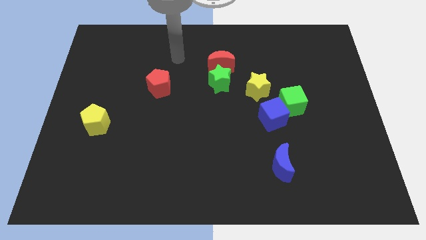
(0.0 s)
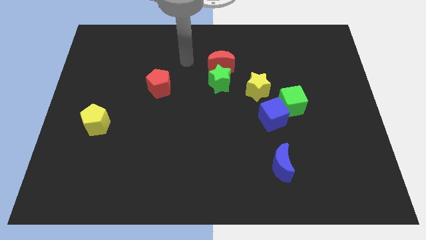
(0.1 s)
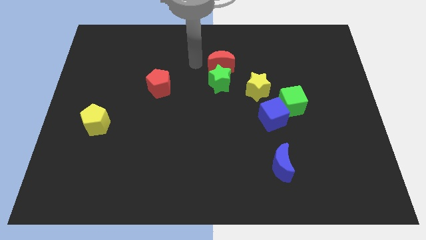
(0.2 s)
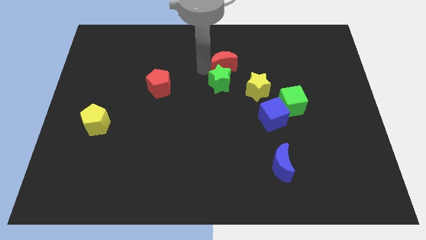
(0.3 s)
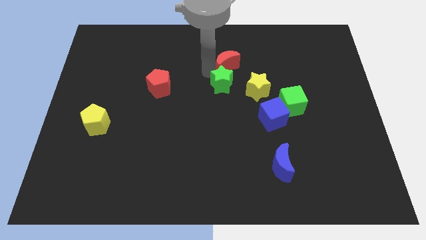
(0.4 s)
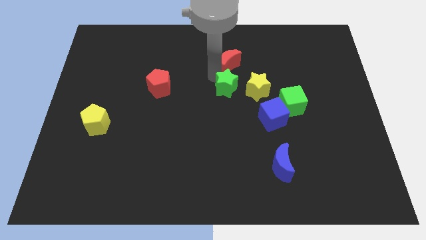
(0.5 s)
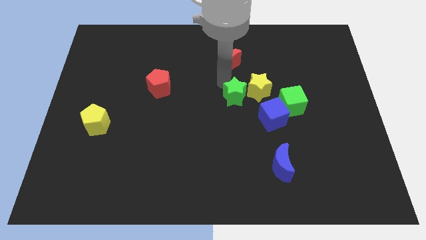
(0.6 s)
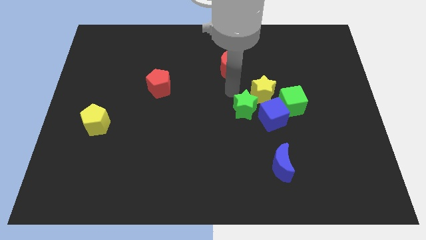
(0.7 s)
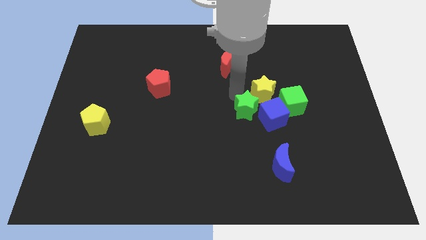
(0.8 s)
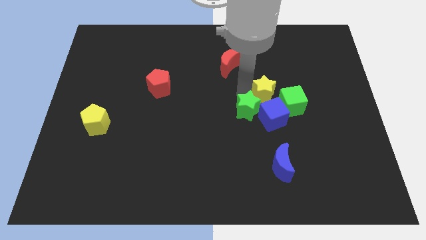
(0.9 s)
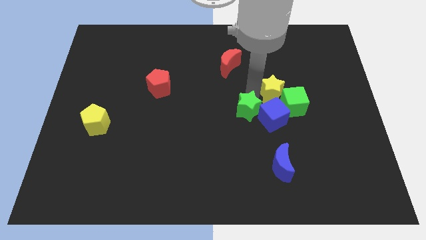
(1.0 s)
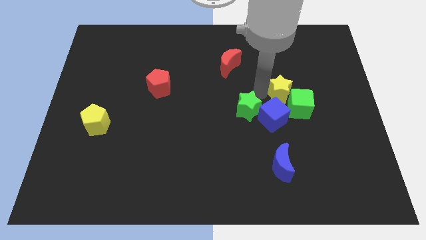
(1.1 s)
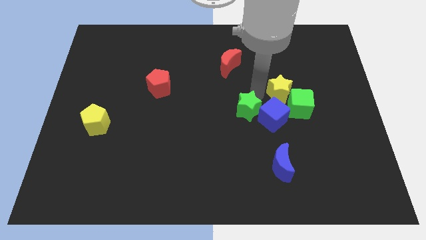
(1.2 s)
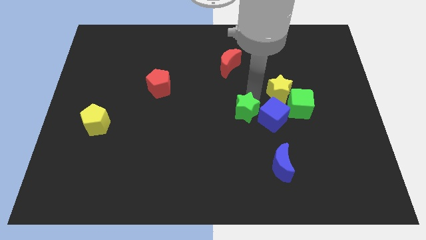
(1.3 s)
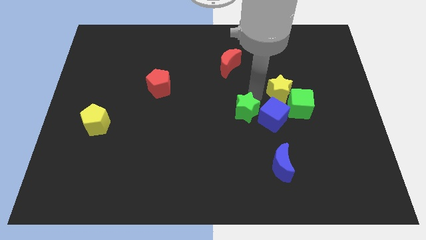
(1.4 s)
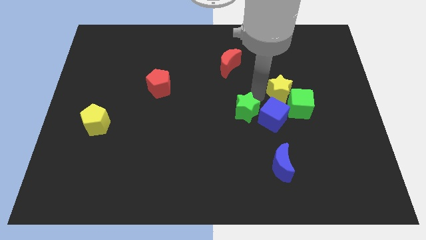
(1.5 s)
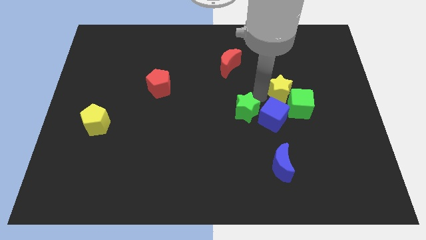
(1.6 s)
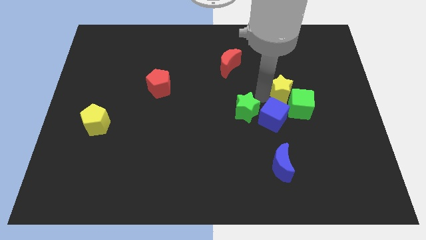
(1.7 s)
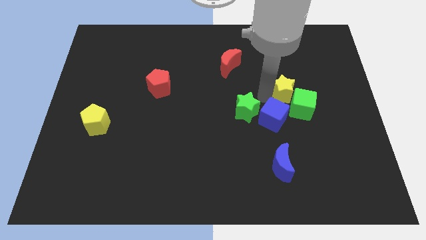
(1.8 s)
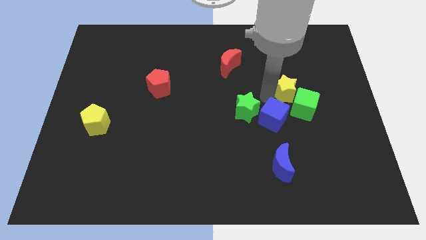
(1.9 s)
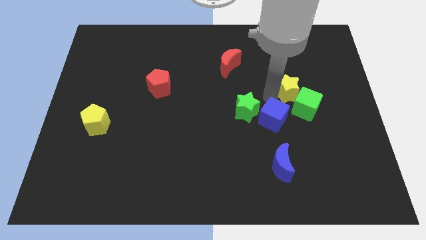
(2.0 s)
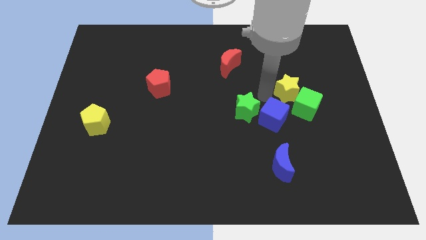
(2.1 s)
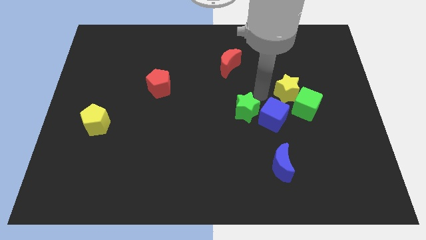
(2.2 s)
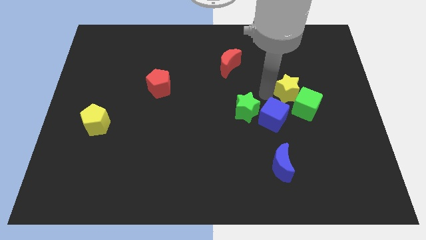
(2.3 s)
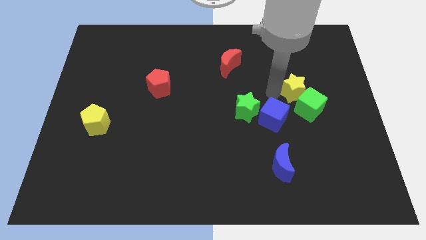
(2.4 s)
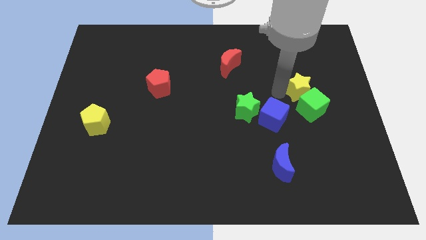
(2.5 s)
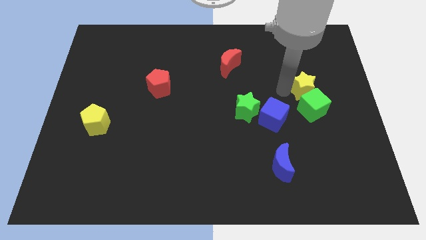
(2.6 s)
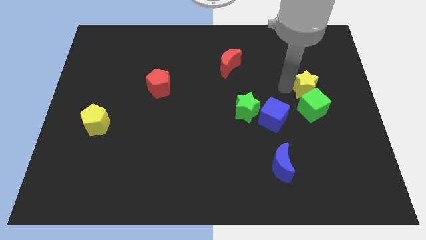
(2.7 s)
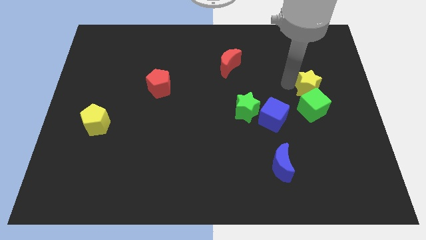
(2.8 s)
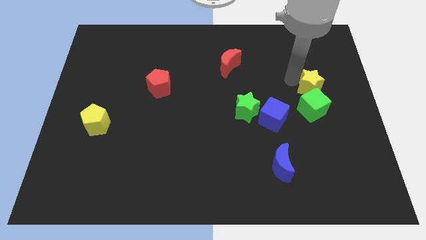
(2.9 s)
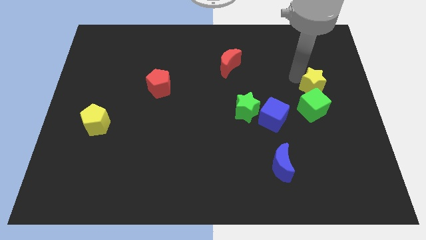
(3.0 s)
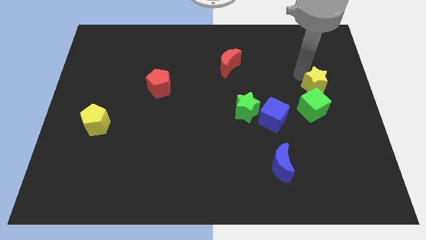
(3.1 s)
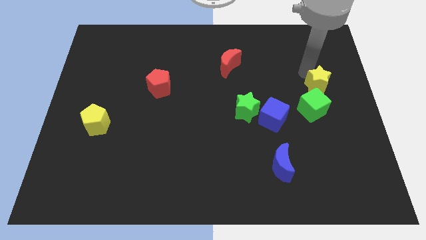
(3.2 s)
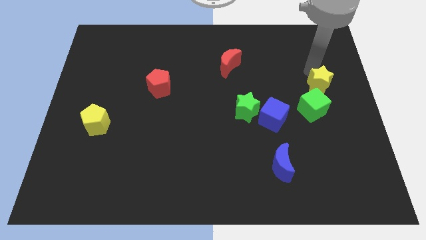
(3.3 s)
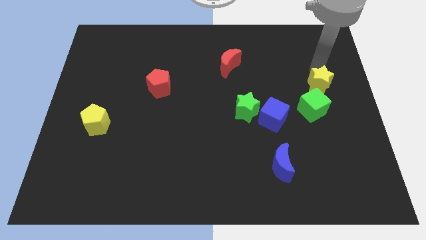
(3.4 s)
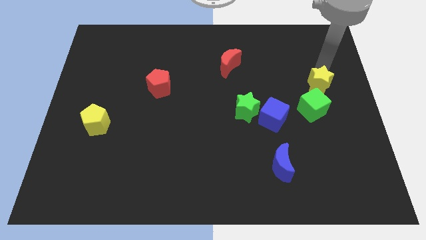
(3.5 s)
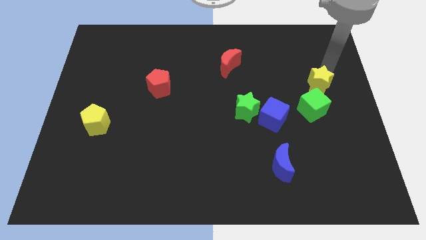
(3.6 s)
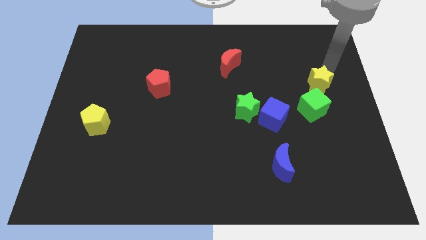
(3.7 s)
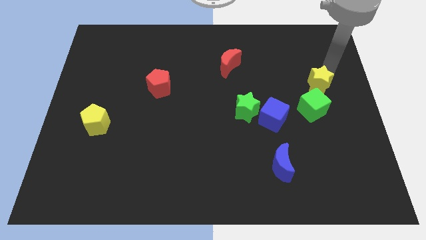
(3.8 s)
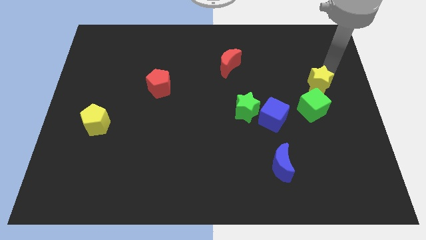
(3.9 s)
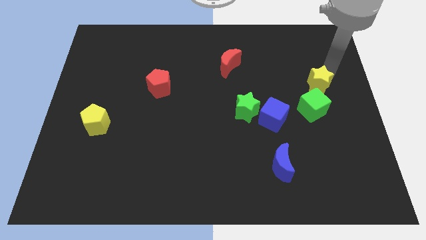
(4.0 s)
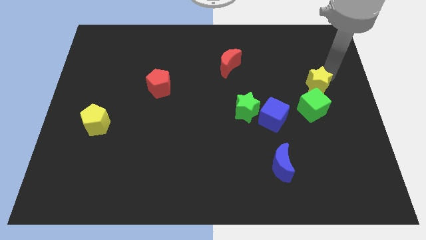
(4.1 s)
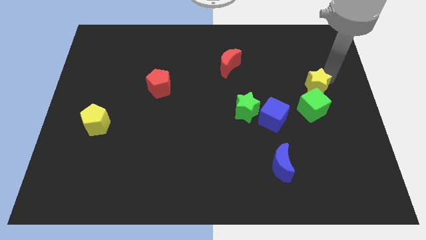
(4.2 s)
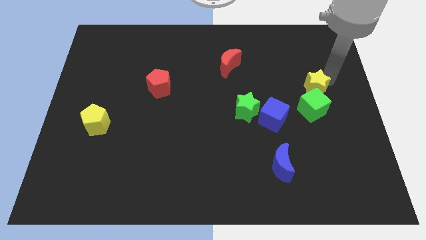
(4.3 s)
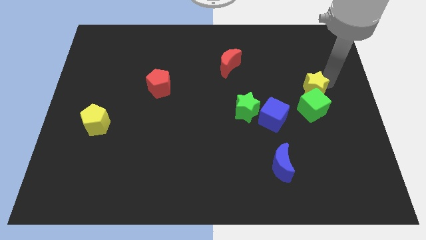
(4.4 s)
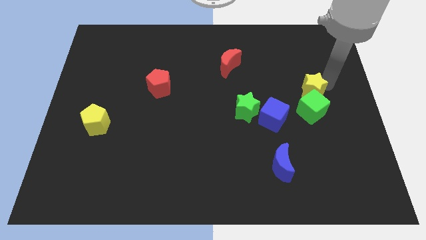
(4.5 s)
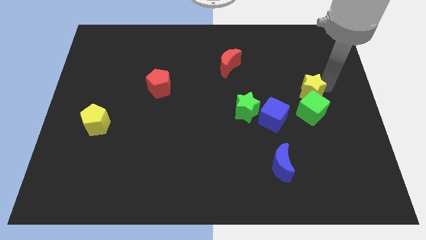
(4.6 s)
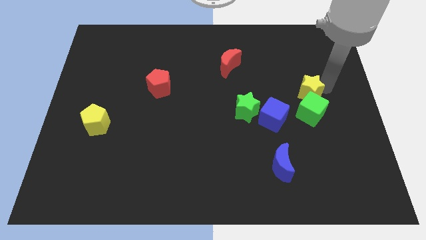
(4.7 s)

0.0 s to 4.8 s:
move the yellow star slightly diagonally down and to the right

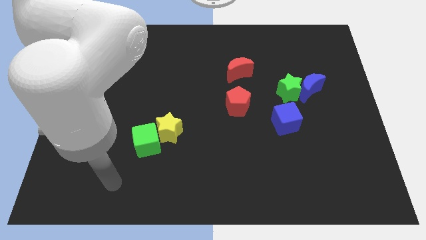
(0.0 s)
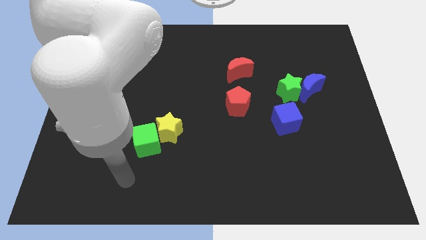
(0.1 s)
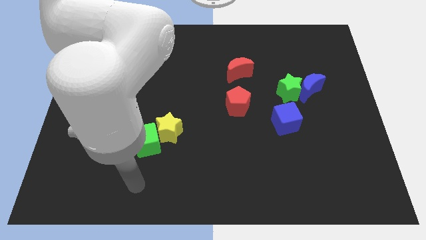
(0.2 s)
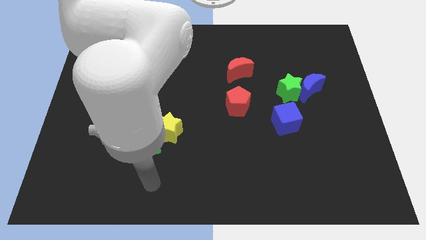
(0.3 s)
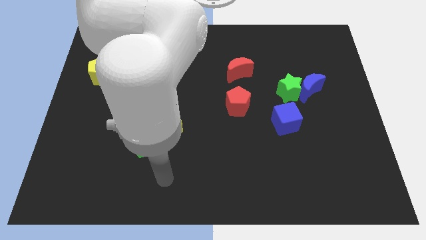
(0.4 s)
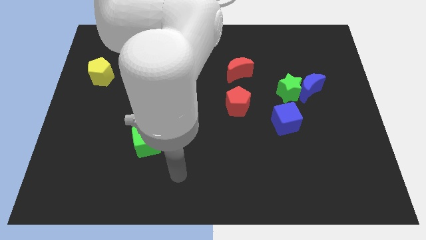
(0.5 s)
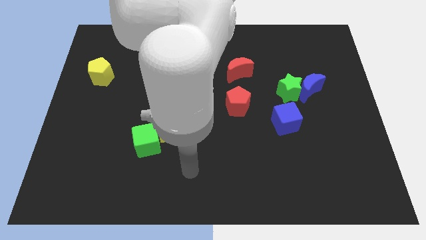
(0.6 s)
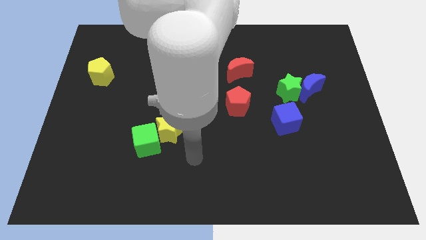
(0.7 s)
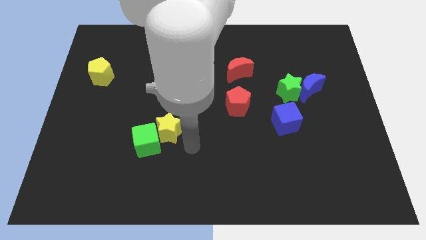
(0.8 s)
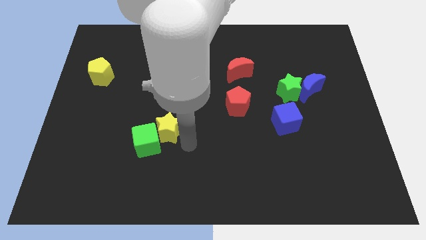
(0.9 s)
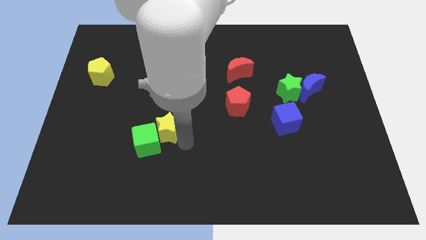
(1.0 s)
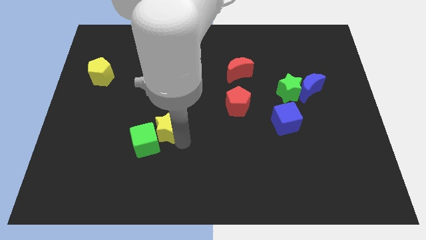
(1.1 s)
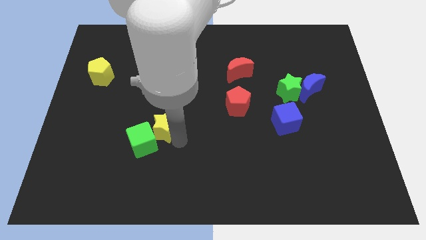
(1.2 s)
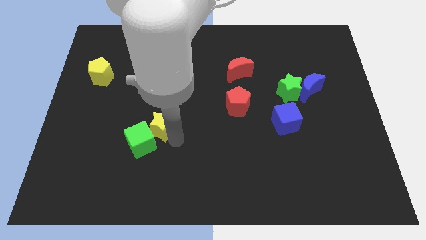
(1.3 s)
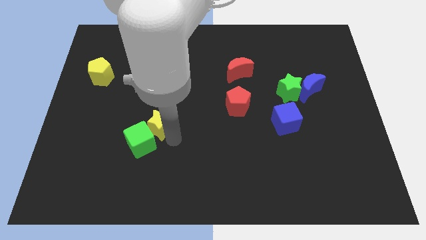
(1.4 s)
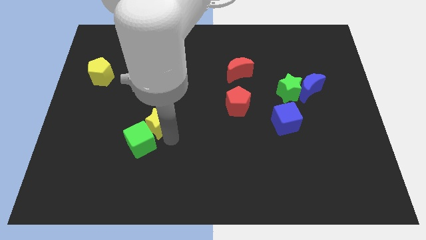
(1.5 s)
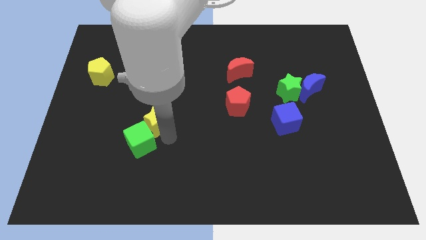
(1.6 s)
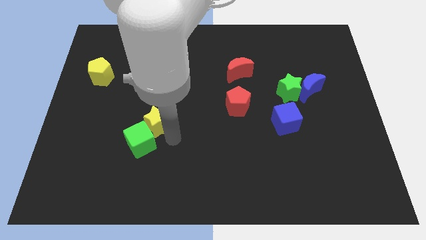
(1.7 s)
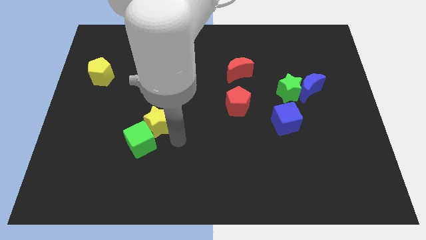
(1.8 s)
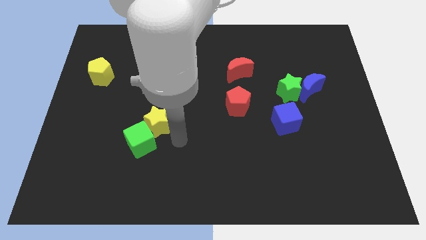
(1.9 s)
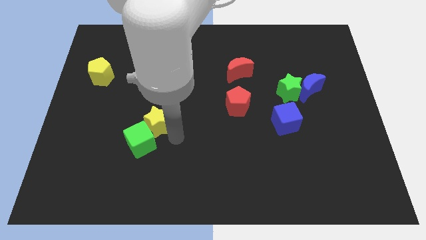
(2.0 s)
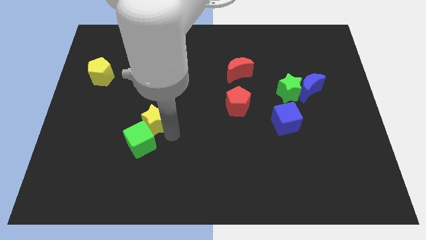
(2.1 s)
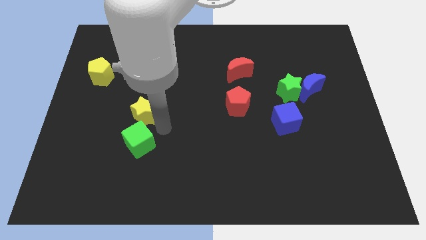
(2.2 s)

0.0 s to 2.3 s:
slightly slide the yellow star up and then left

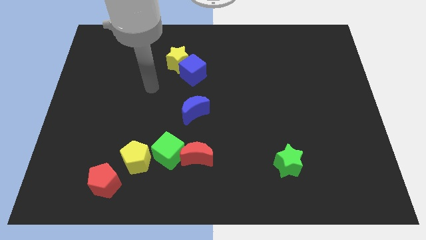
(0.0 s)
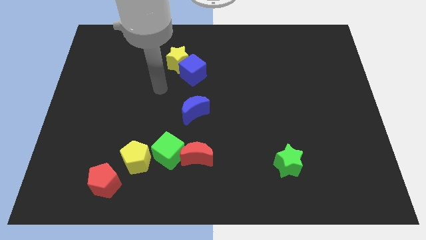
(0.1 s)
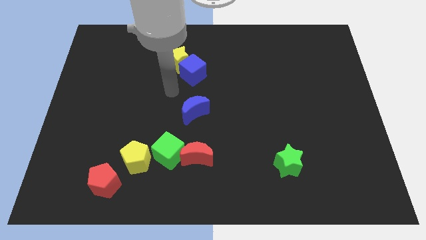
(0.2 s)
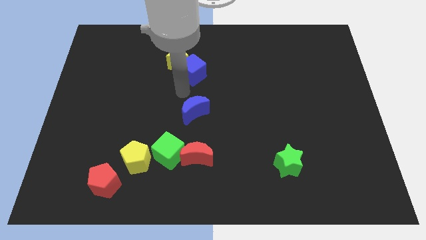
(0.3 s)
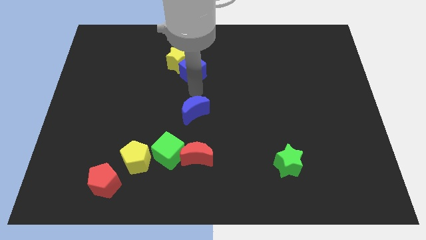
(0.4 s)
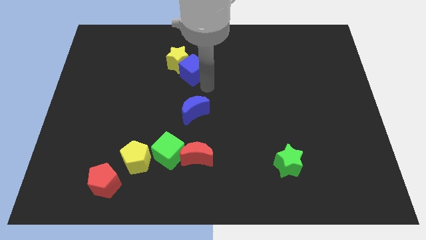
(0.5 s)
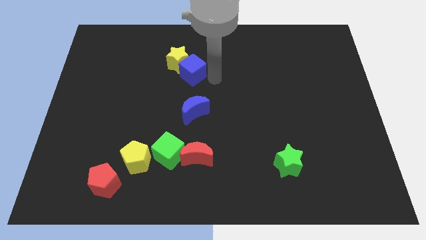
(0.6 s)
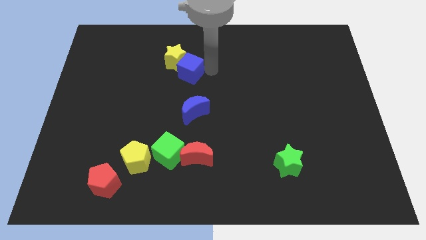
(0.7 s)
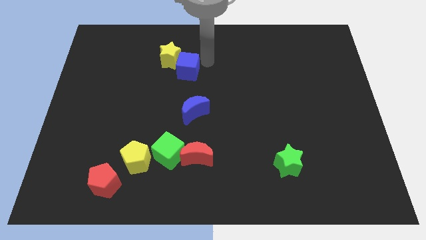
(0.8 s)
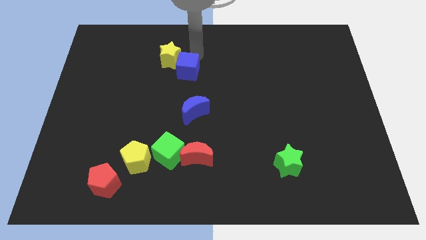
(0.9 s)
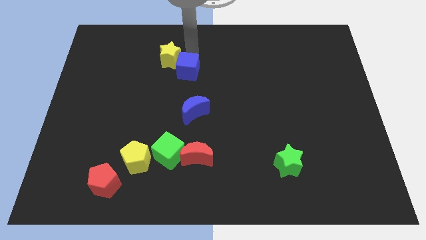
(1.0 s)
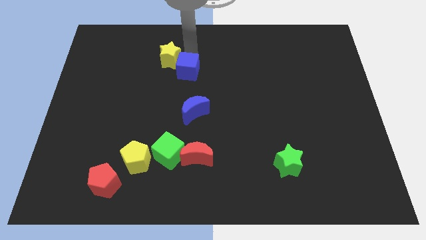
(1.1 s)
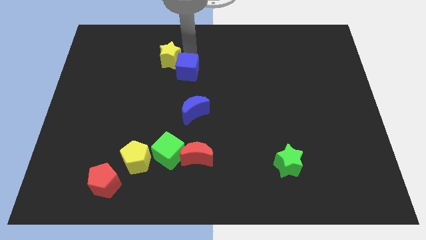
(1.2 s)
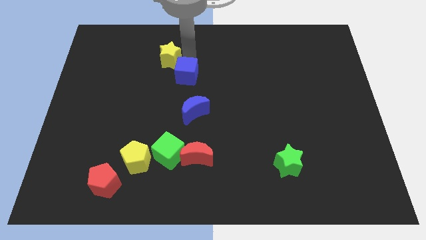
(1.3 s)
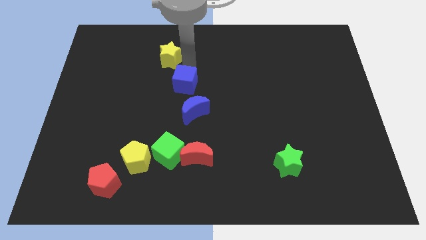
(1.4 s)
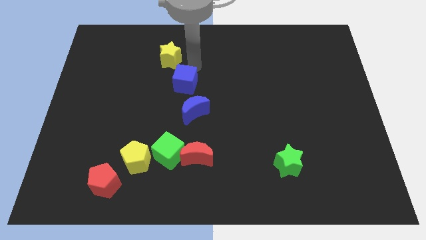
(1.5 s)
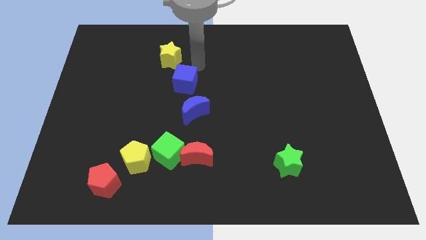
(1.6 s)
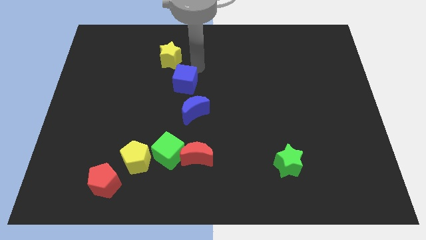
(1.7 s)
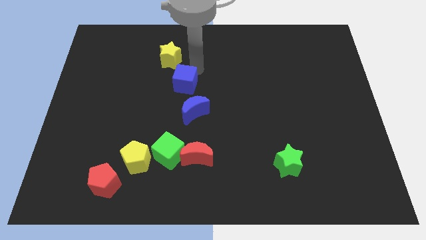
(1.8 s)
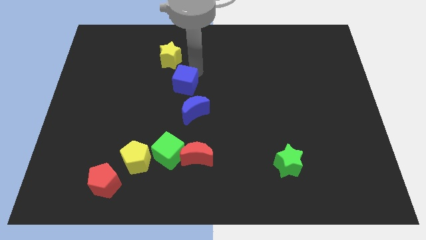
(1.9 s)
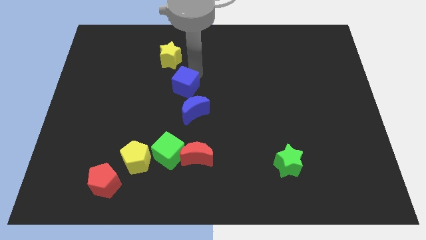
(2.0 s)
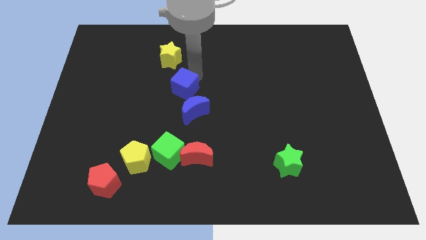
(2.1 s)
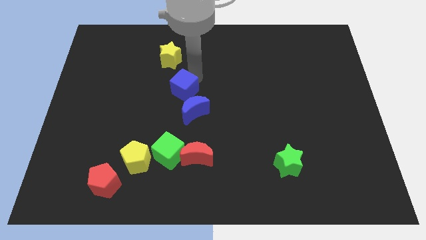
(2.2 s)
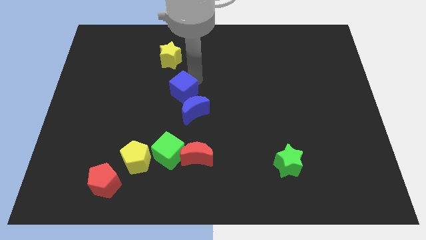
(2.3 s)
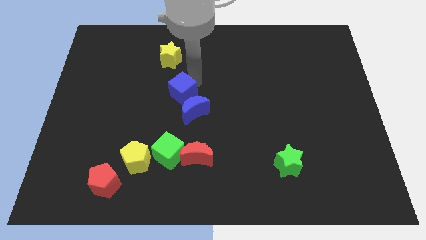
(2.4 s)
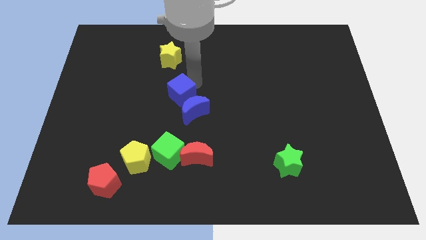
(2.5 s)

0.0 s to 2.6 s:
slightly push the blue cube downwards
